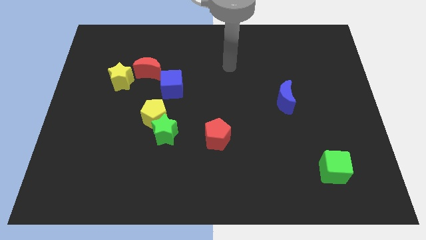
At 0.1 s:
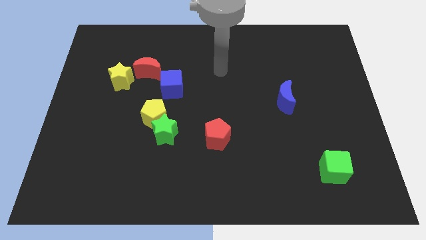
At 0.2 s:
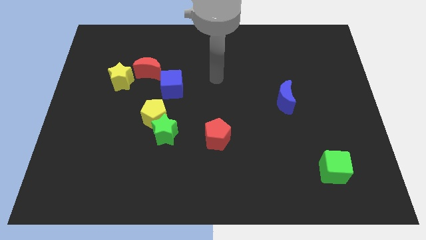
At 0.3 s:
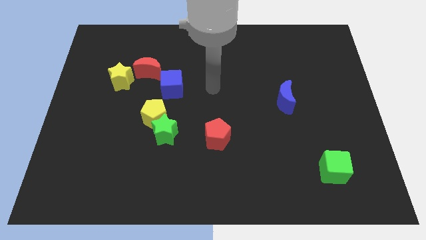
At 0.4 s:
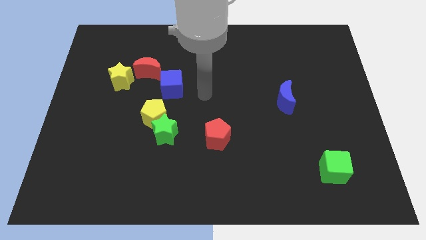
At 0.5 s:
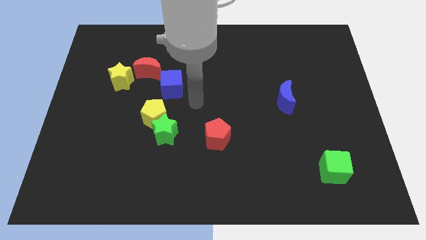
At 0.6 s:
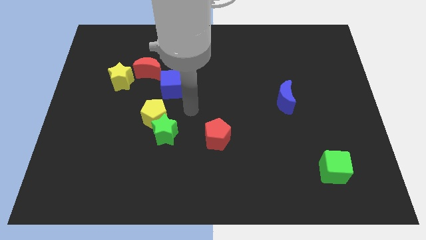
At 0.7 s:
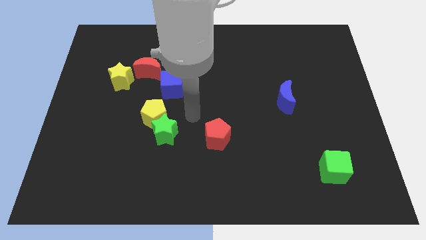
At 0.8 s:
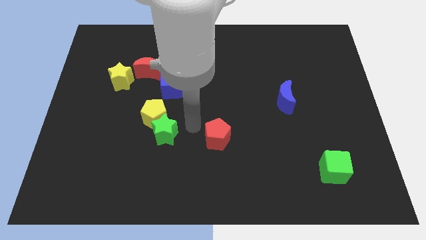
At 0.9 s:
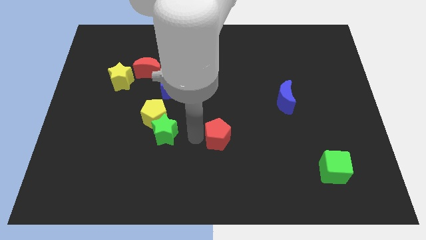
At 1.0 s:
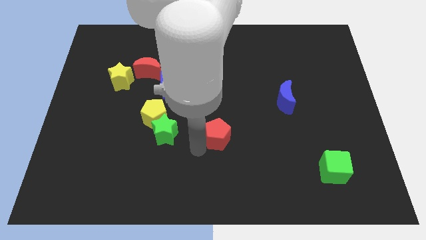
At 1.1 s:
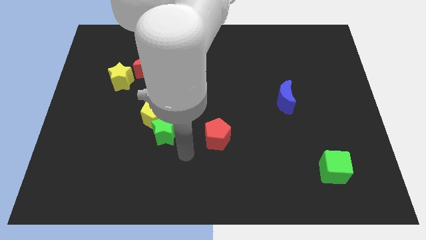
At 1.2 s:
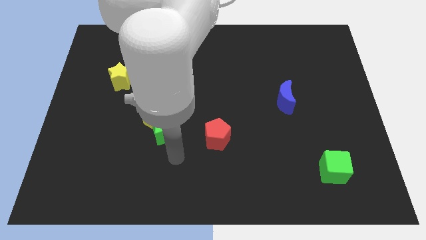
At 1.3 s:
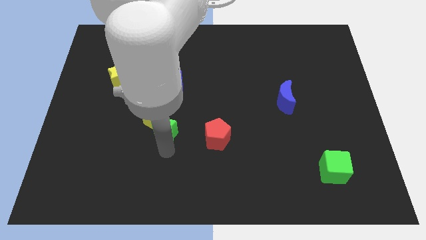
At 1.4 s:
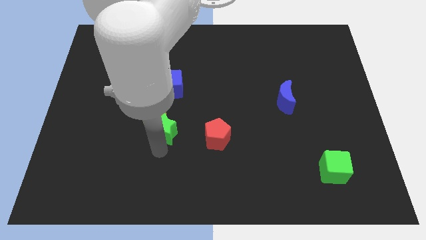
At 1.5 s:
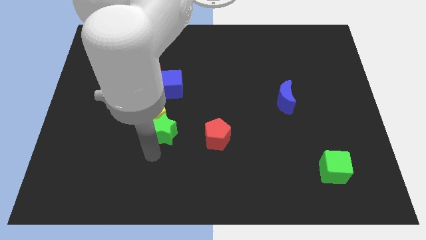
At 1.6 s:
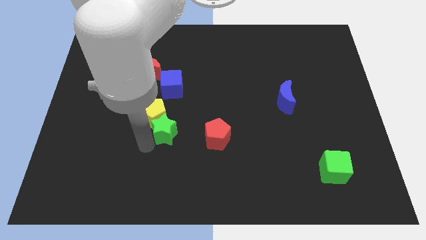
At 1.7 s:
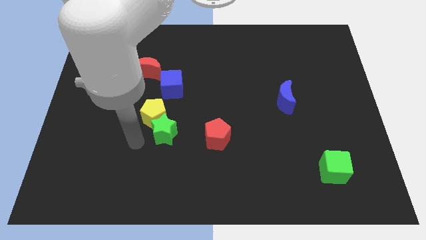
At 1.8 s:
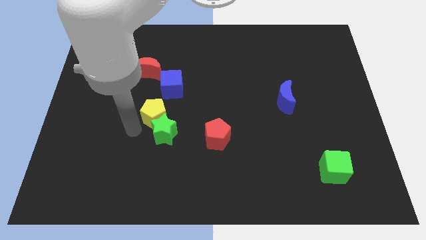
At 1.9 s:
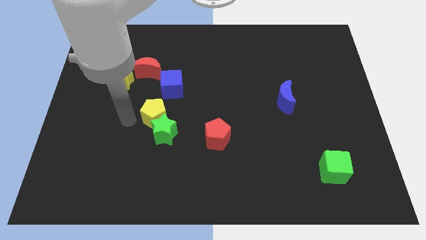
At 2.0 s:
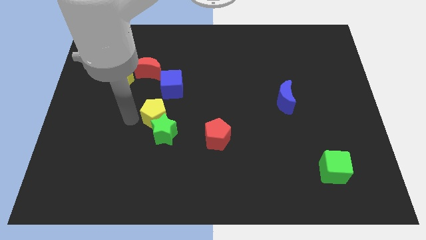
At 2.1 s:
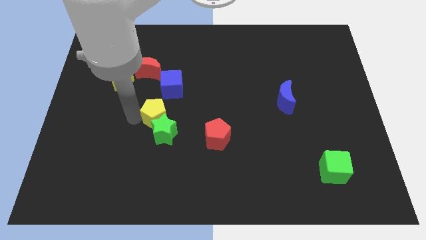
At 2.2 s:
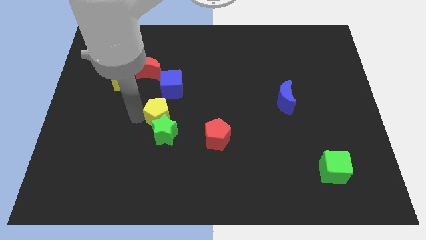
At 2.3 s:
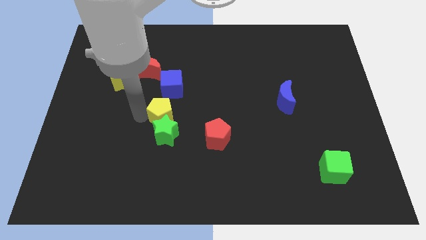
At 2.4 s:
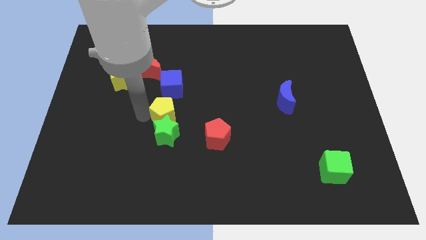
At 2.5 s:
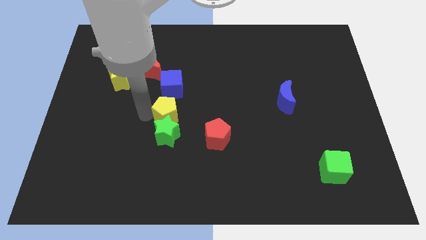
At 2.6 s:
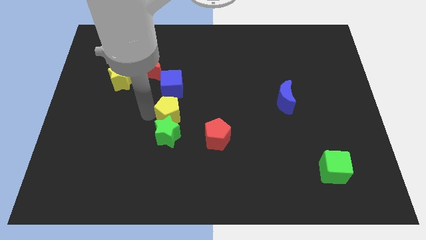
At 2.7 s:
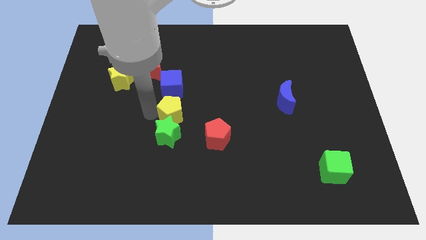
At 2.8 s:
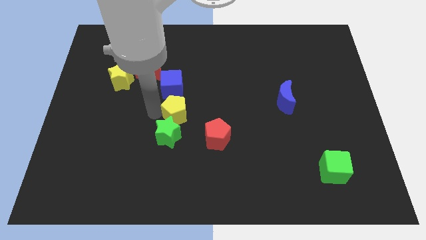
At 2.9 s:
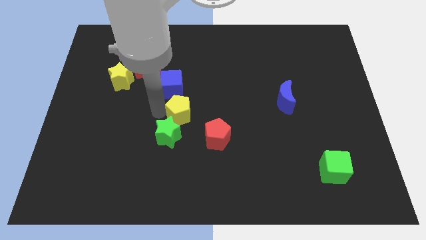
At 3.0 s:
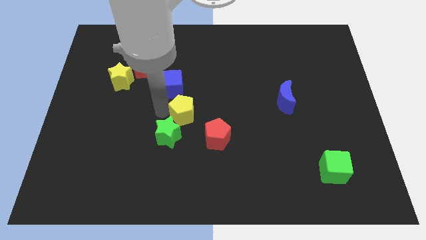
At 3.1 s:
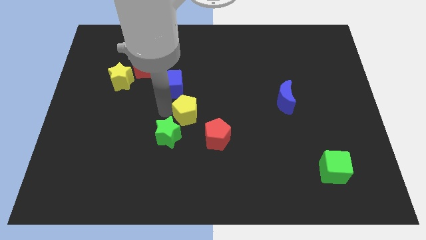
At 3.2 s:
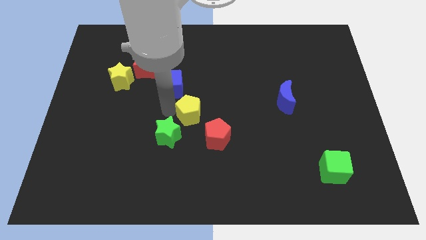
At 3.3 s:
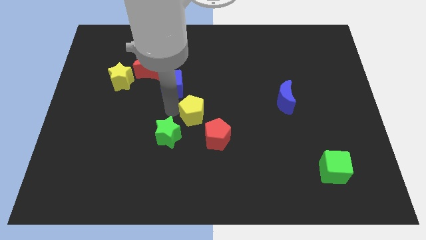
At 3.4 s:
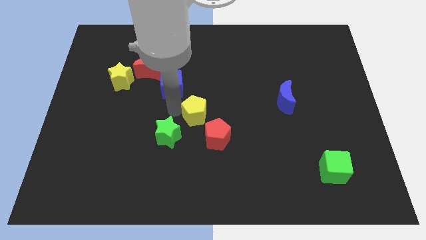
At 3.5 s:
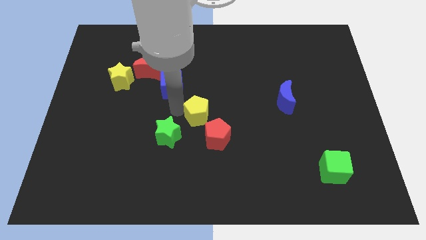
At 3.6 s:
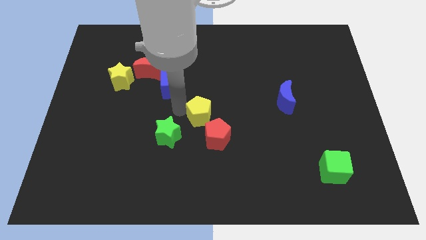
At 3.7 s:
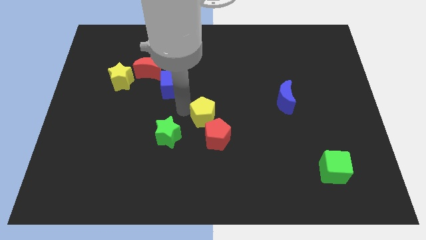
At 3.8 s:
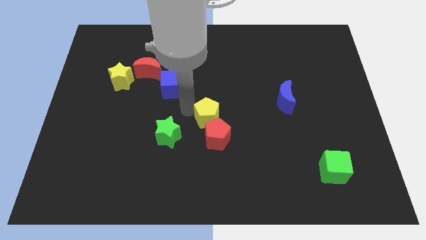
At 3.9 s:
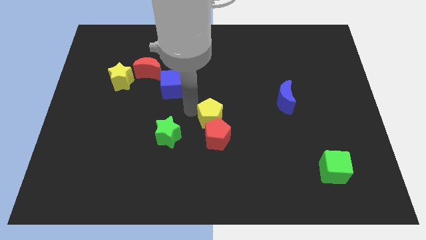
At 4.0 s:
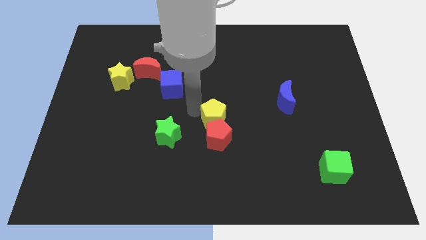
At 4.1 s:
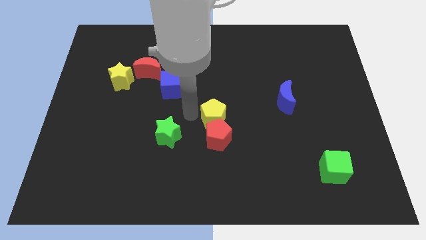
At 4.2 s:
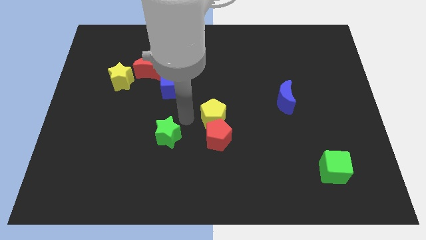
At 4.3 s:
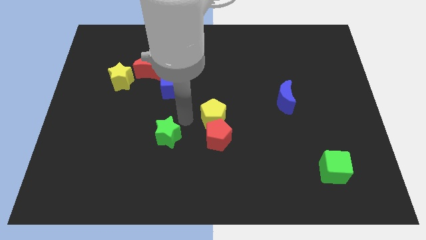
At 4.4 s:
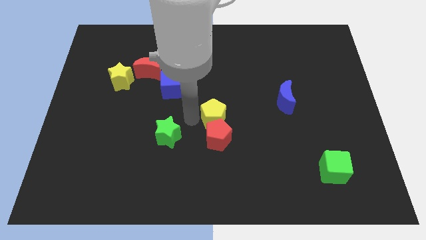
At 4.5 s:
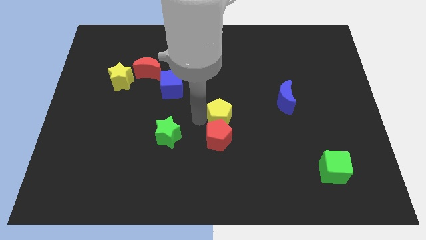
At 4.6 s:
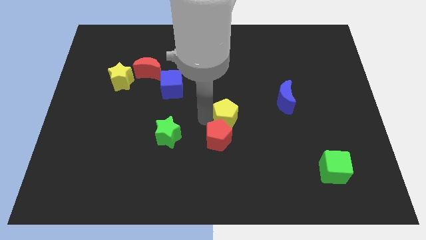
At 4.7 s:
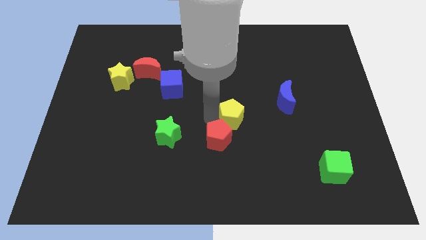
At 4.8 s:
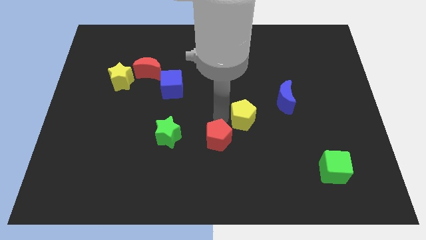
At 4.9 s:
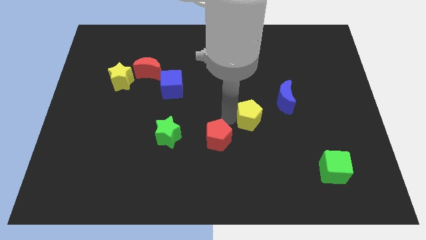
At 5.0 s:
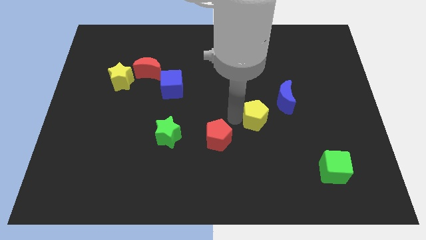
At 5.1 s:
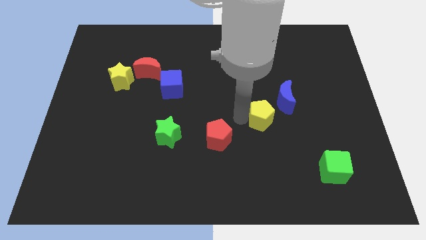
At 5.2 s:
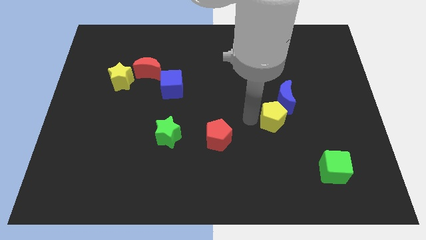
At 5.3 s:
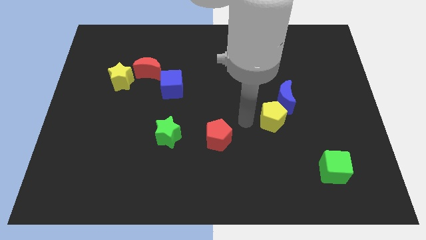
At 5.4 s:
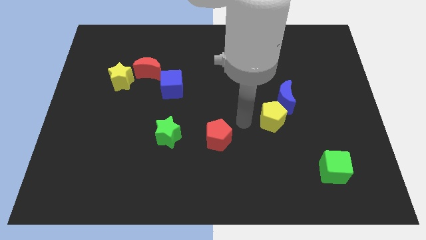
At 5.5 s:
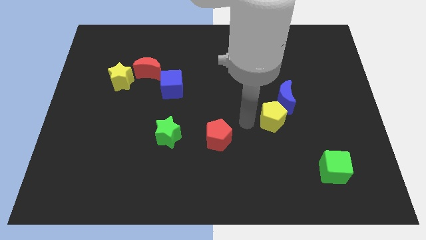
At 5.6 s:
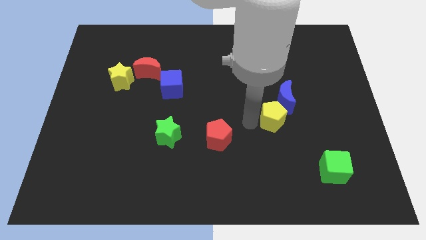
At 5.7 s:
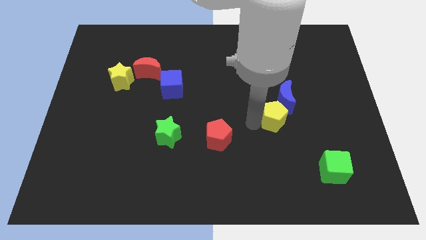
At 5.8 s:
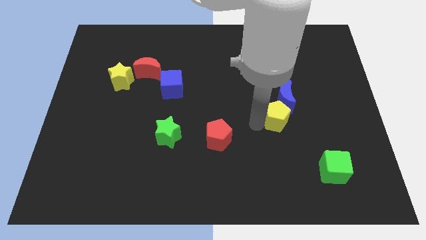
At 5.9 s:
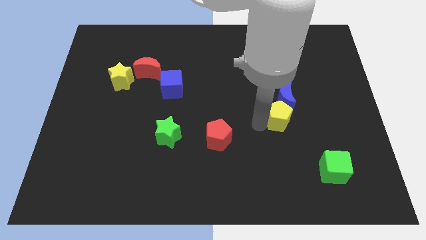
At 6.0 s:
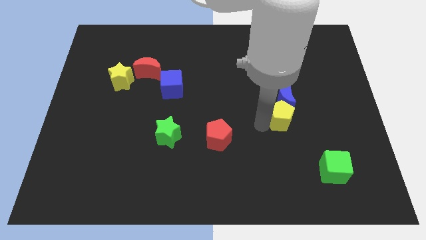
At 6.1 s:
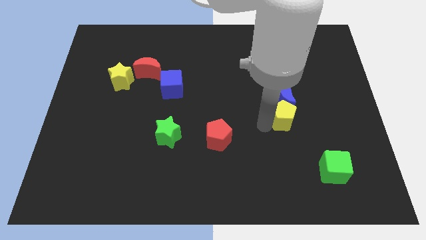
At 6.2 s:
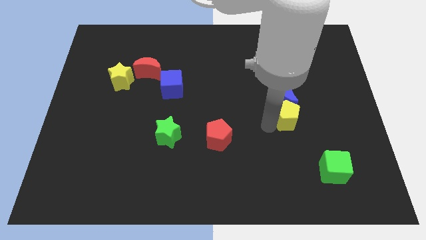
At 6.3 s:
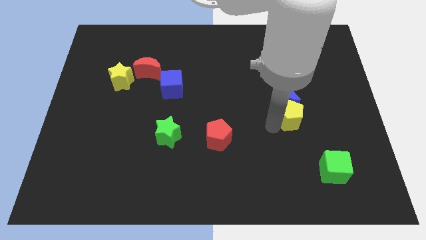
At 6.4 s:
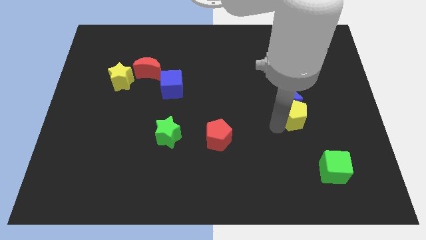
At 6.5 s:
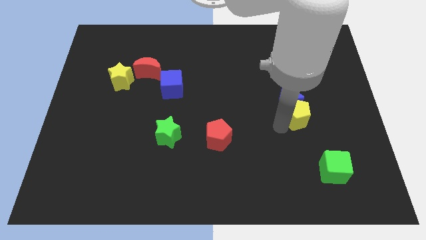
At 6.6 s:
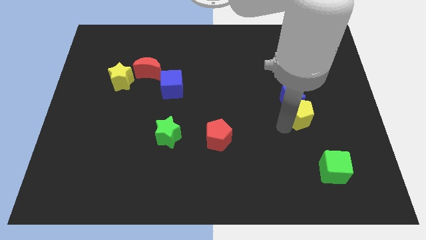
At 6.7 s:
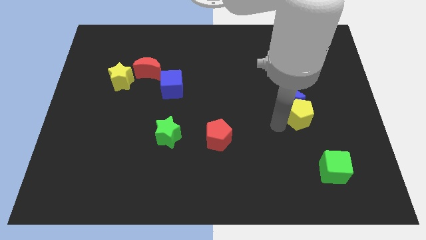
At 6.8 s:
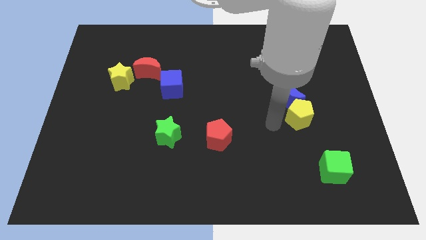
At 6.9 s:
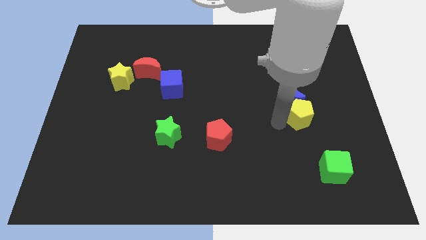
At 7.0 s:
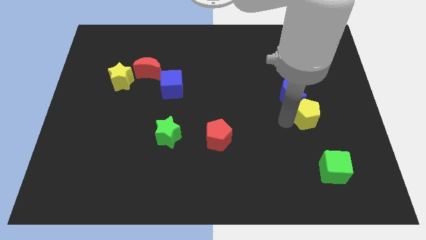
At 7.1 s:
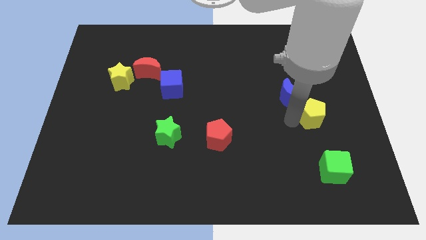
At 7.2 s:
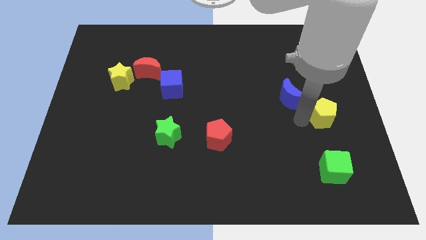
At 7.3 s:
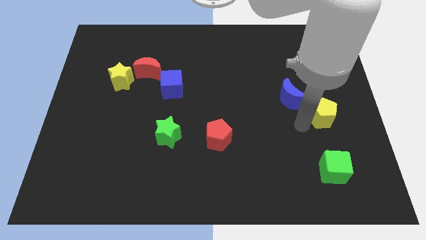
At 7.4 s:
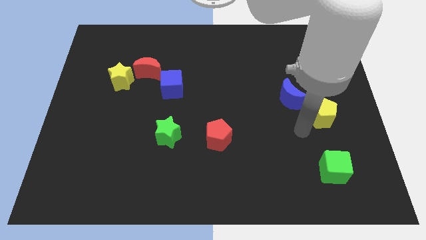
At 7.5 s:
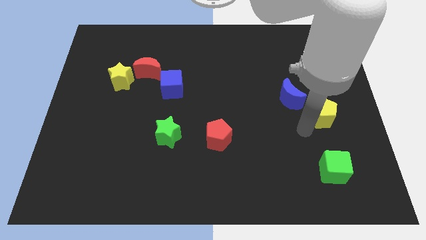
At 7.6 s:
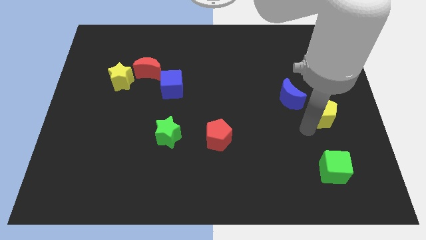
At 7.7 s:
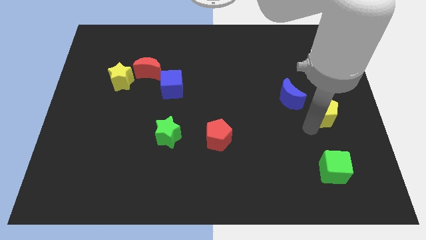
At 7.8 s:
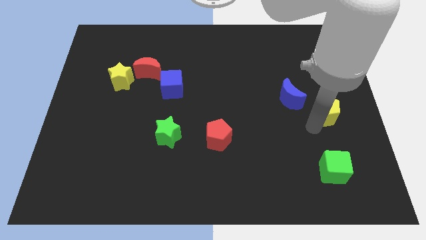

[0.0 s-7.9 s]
move the yellow pentagon to the right side of the board
